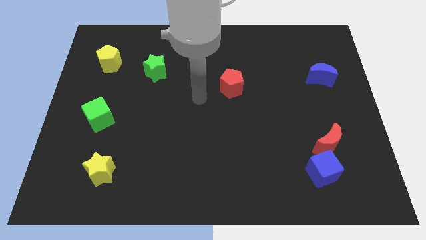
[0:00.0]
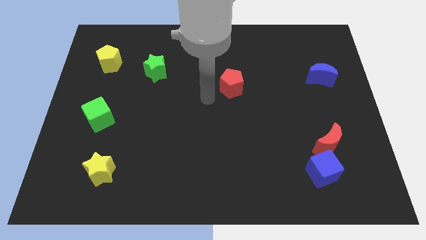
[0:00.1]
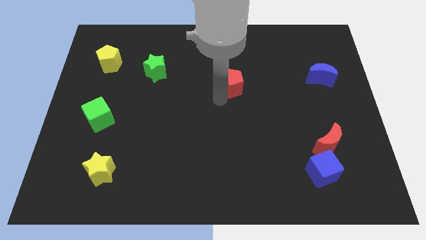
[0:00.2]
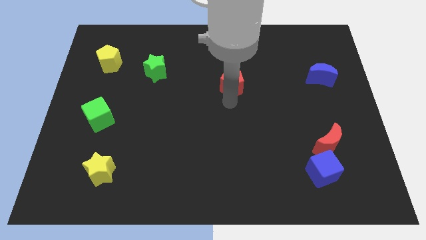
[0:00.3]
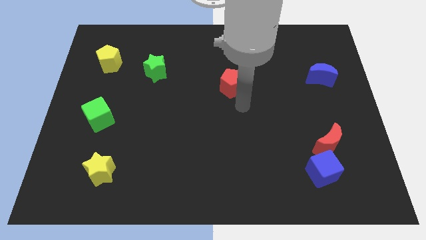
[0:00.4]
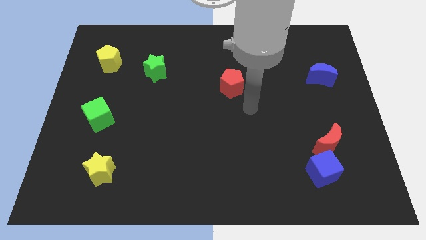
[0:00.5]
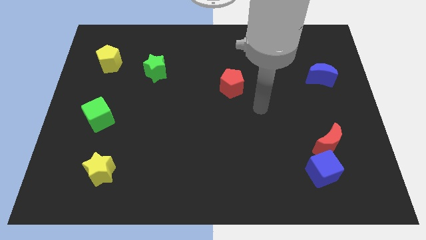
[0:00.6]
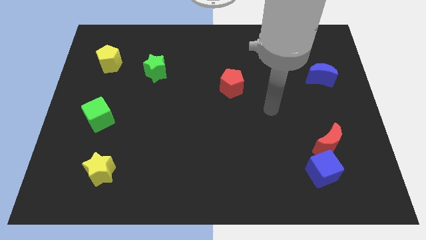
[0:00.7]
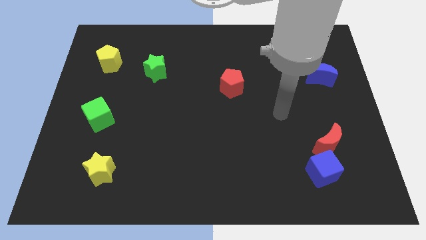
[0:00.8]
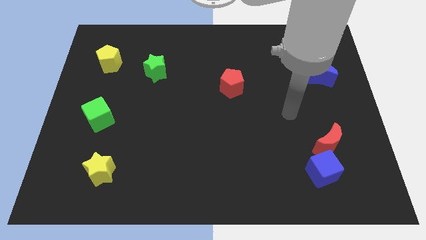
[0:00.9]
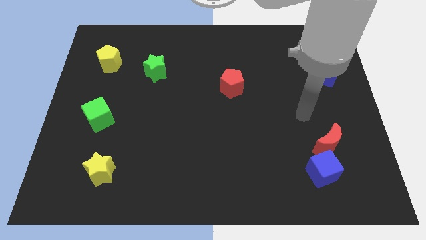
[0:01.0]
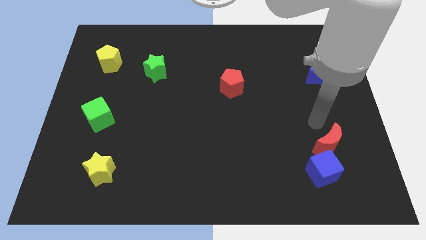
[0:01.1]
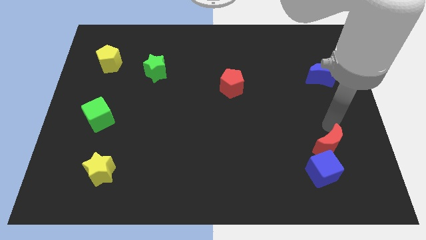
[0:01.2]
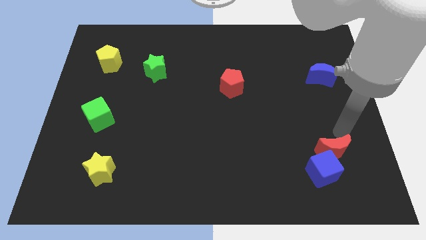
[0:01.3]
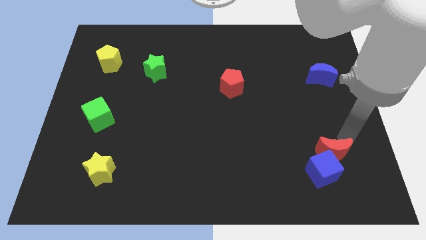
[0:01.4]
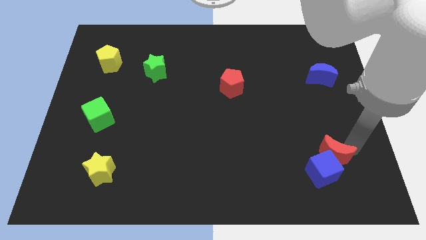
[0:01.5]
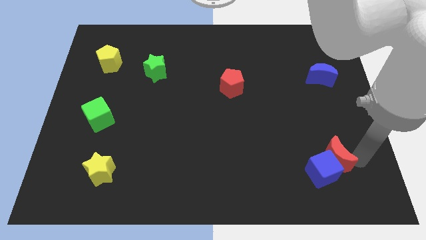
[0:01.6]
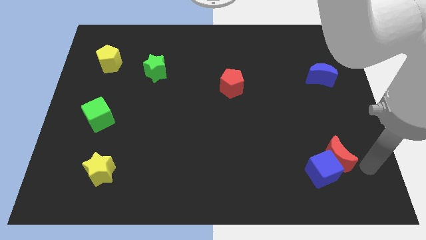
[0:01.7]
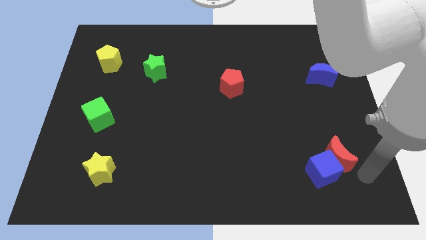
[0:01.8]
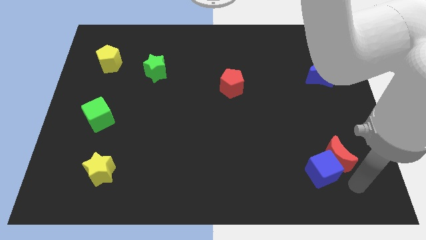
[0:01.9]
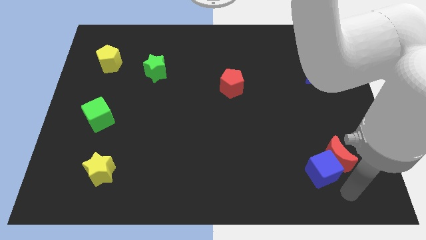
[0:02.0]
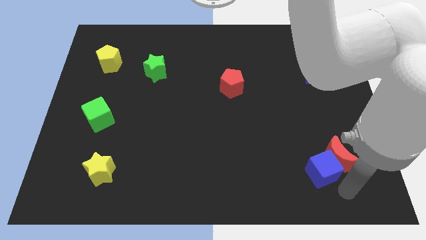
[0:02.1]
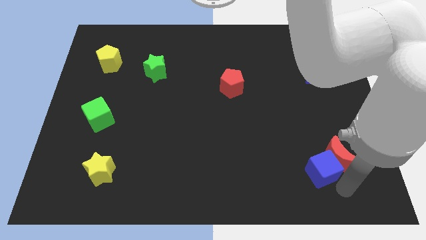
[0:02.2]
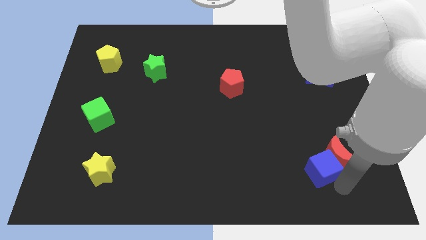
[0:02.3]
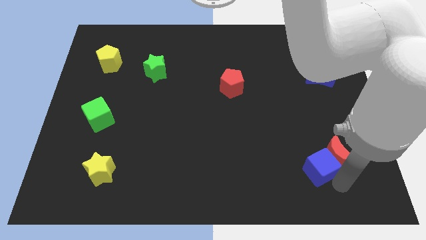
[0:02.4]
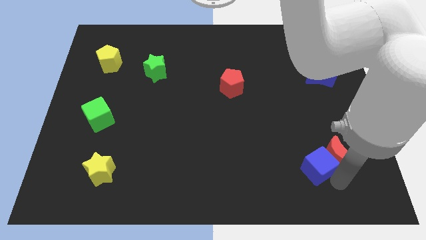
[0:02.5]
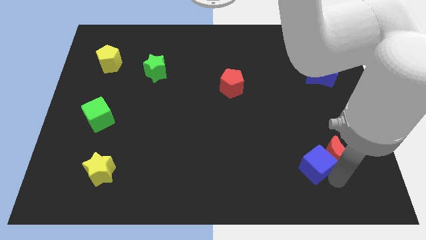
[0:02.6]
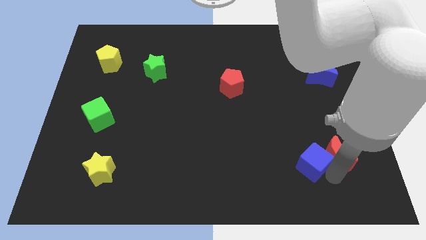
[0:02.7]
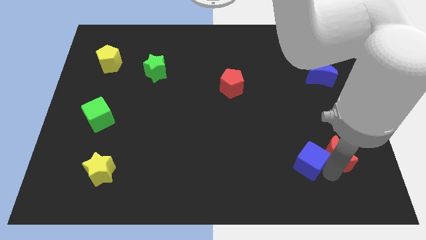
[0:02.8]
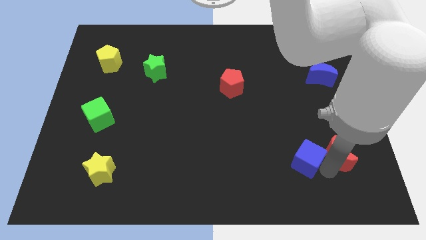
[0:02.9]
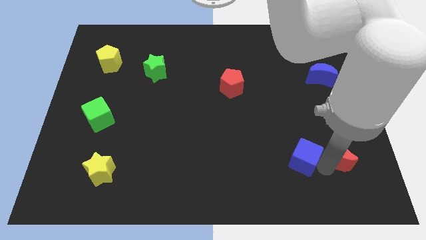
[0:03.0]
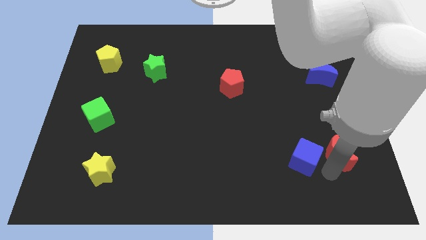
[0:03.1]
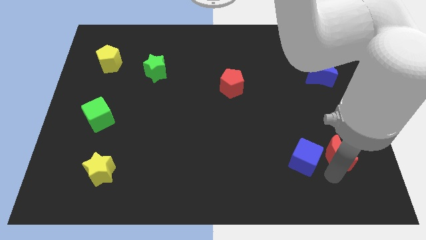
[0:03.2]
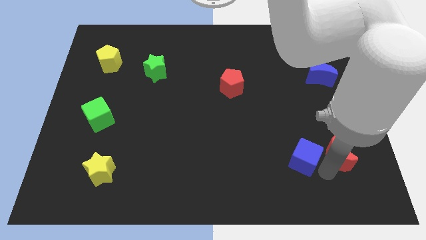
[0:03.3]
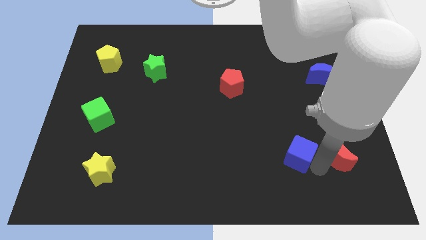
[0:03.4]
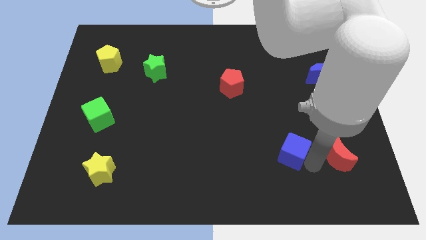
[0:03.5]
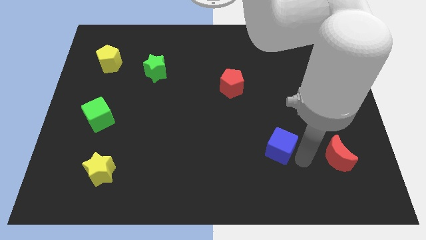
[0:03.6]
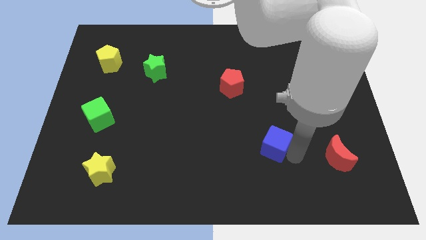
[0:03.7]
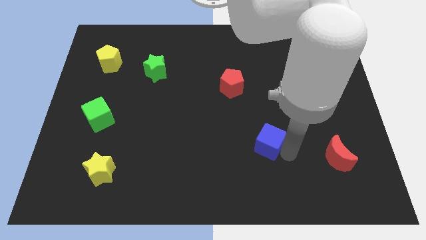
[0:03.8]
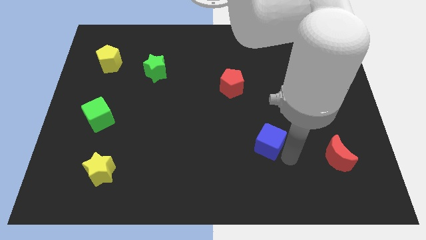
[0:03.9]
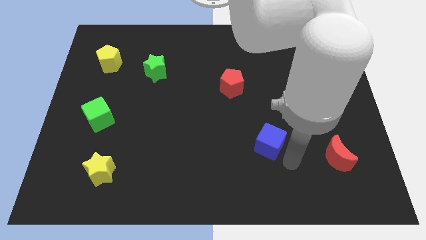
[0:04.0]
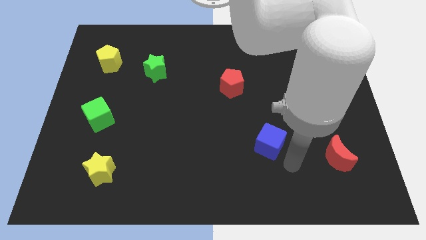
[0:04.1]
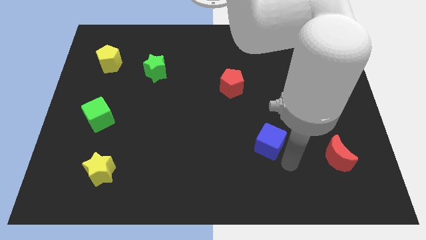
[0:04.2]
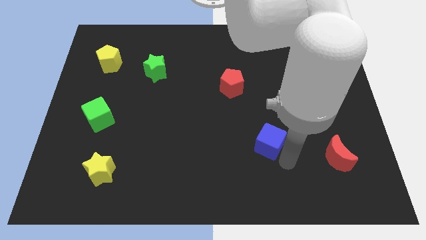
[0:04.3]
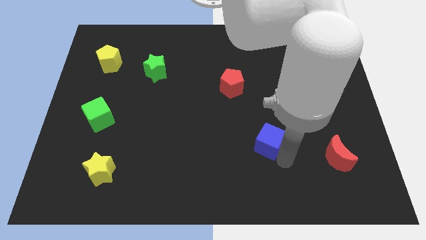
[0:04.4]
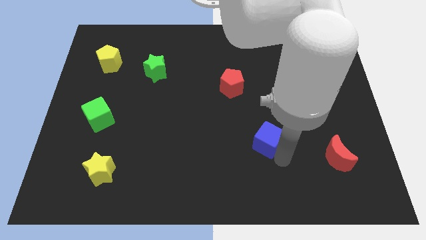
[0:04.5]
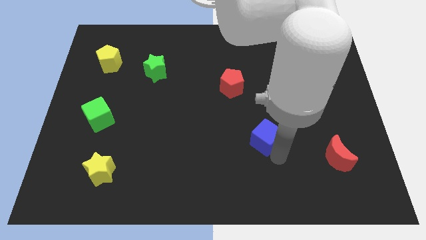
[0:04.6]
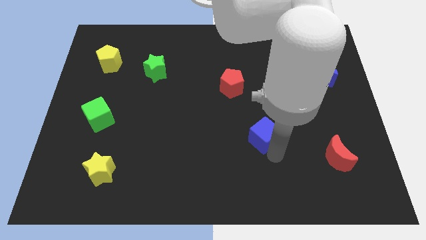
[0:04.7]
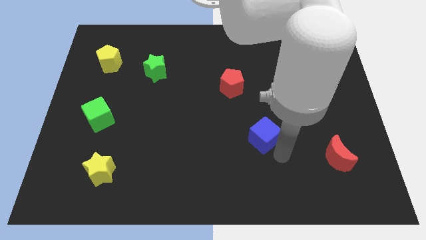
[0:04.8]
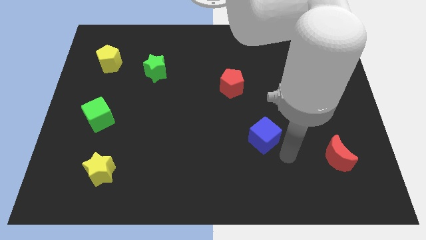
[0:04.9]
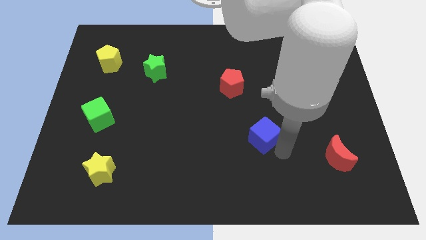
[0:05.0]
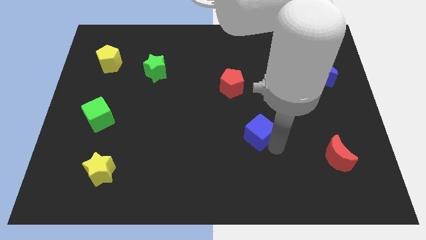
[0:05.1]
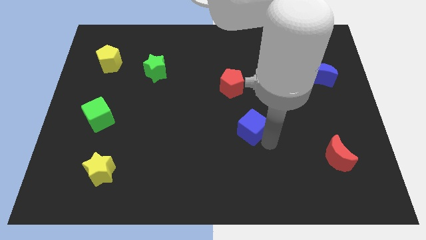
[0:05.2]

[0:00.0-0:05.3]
put the blue cube to the center

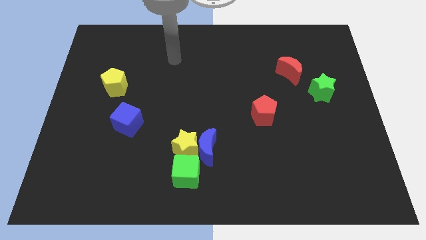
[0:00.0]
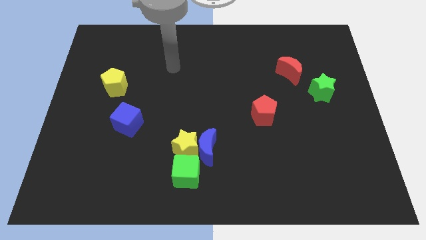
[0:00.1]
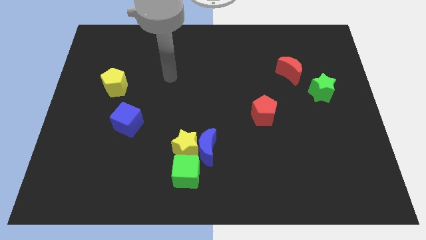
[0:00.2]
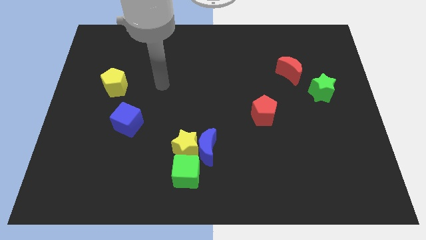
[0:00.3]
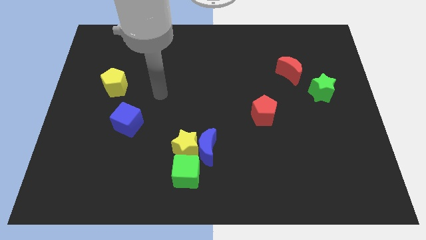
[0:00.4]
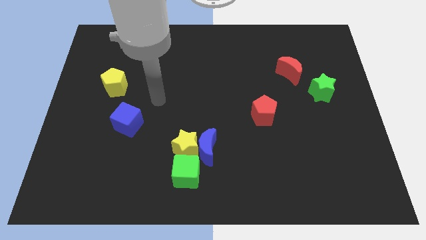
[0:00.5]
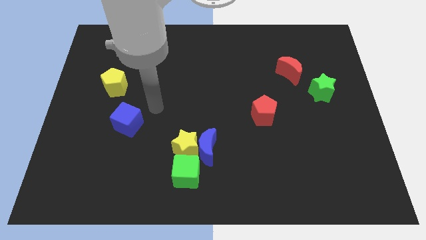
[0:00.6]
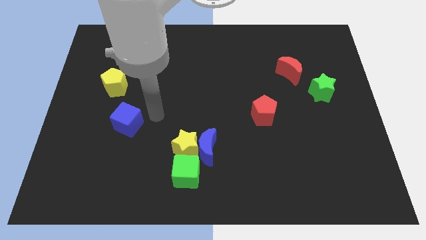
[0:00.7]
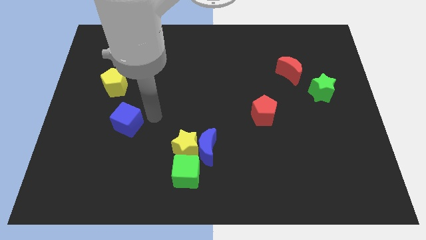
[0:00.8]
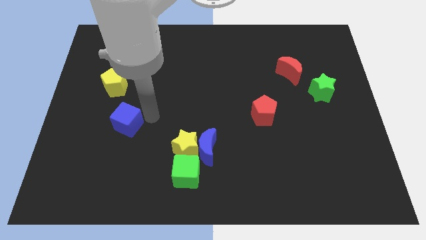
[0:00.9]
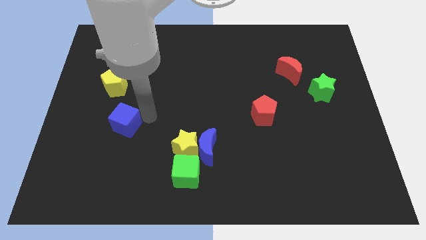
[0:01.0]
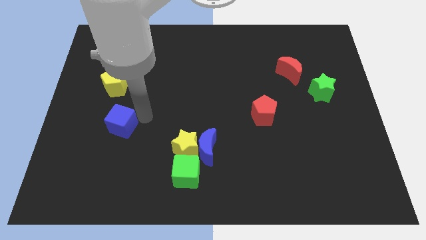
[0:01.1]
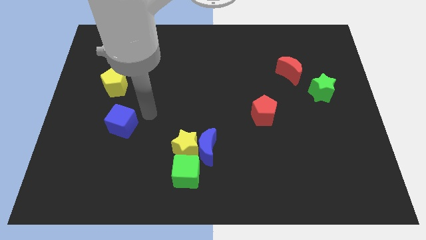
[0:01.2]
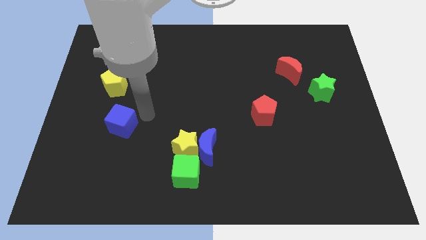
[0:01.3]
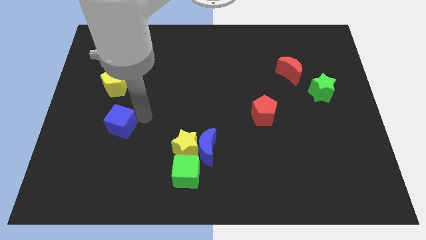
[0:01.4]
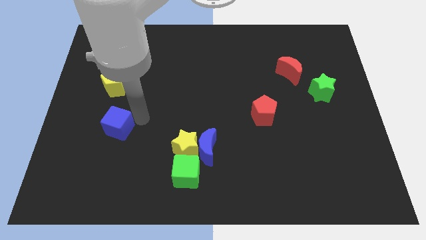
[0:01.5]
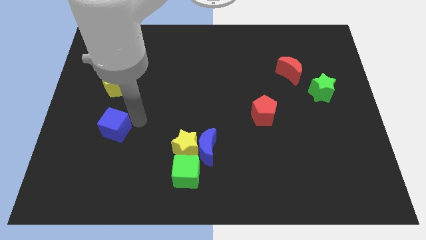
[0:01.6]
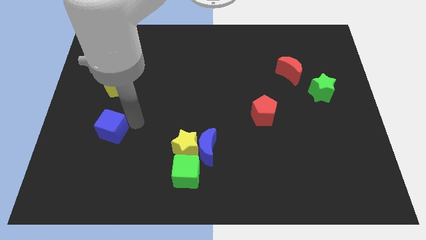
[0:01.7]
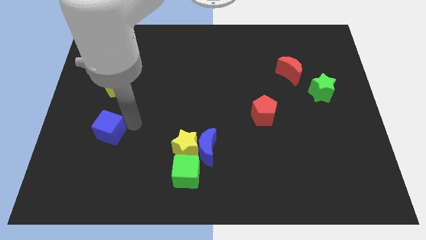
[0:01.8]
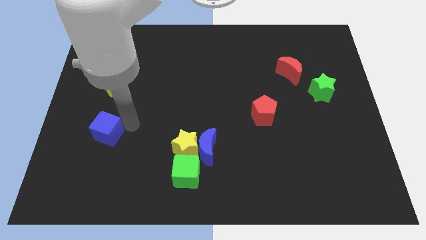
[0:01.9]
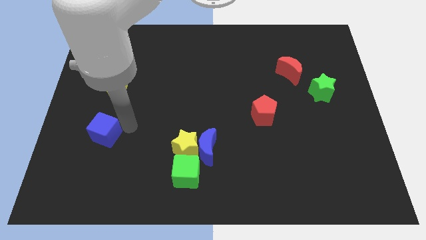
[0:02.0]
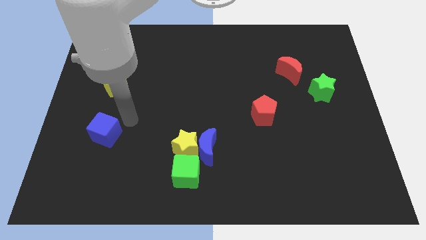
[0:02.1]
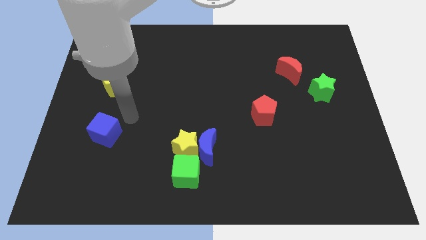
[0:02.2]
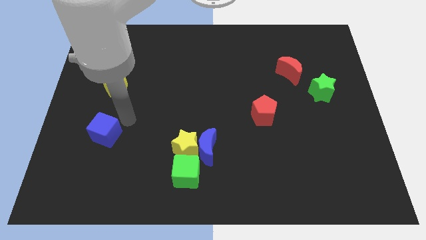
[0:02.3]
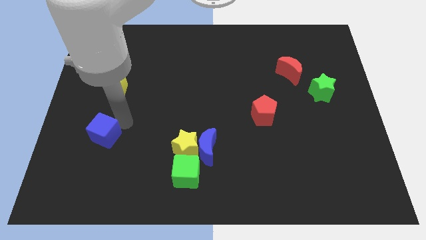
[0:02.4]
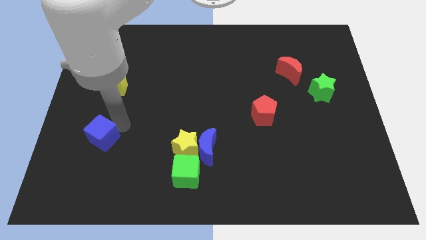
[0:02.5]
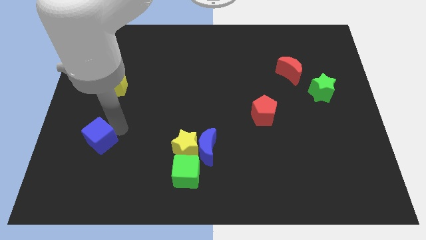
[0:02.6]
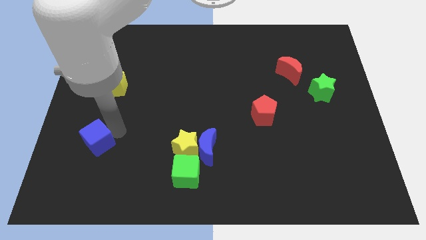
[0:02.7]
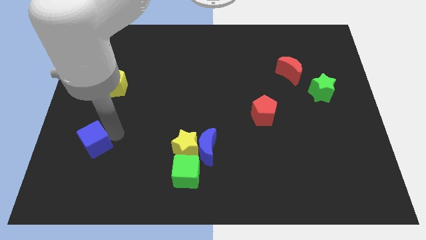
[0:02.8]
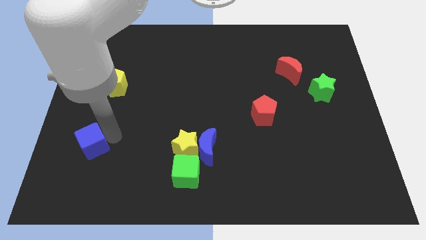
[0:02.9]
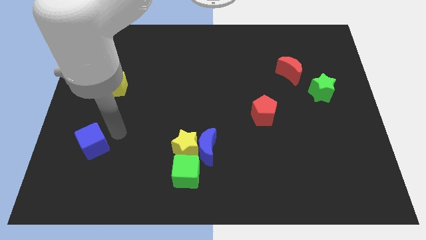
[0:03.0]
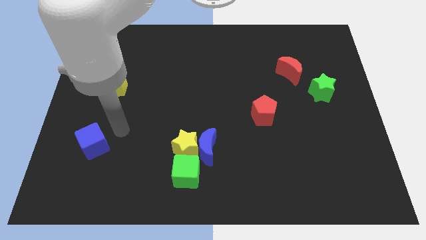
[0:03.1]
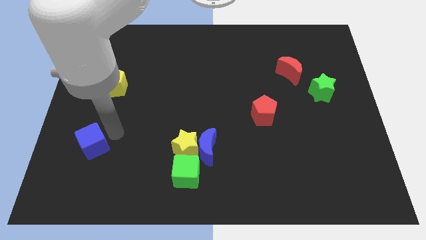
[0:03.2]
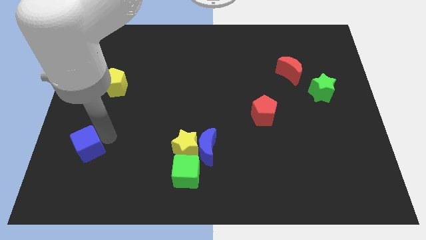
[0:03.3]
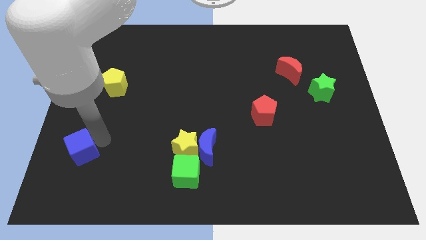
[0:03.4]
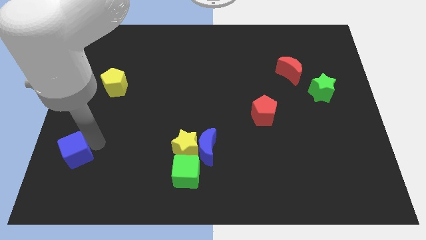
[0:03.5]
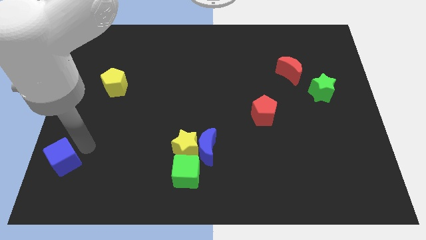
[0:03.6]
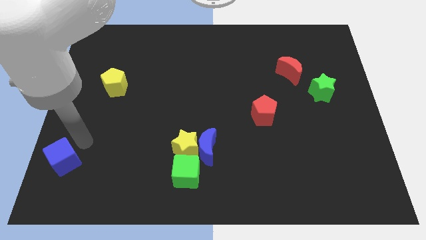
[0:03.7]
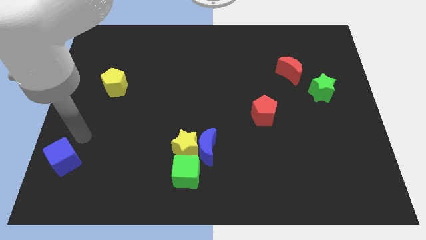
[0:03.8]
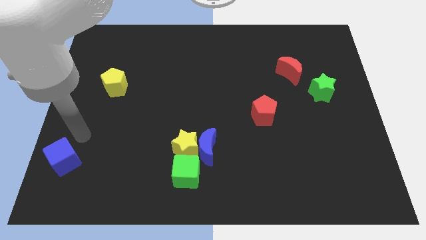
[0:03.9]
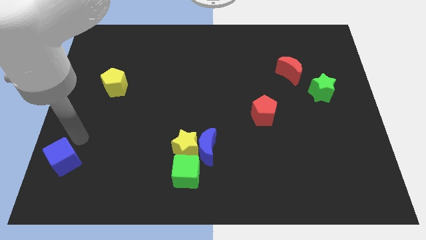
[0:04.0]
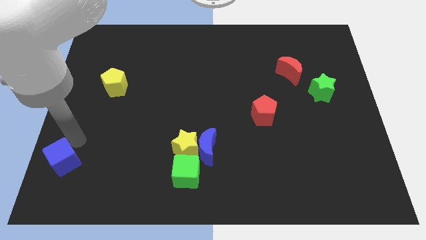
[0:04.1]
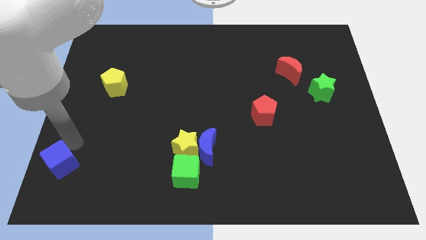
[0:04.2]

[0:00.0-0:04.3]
move the blue cube to the lower left corner
